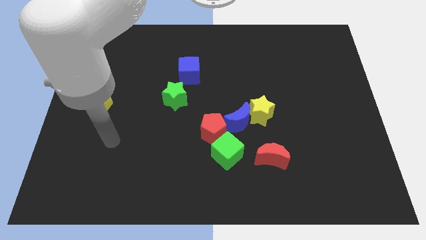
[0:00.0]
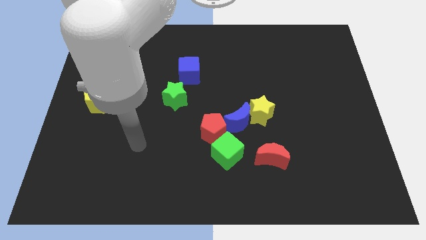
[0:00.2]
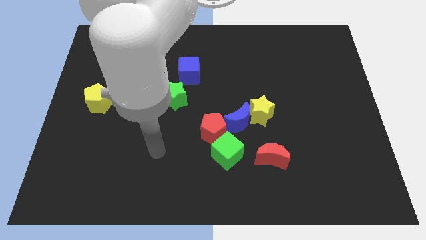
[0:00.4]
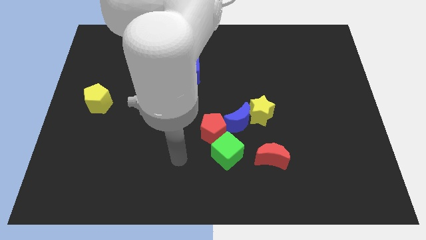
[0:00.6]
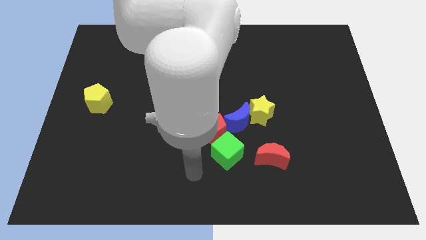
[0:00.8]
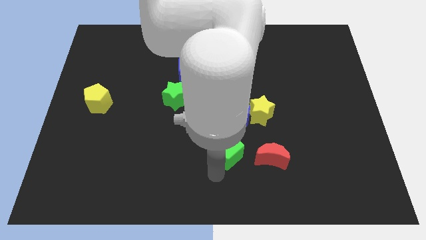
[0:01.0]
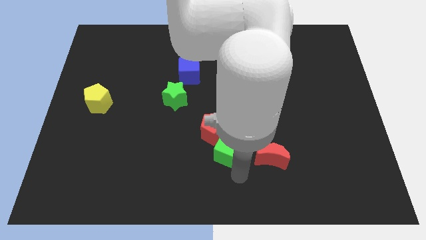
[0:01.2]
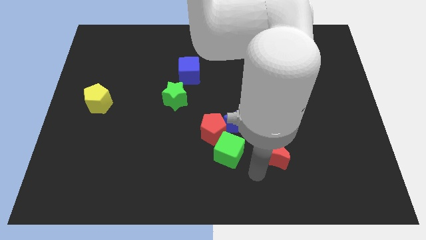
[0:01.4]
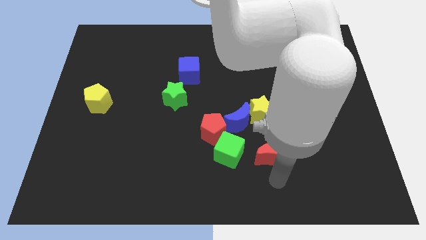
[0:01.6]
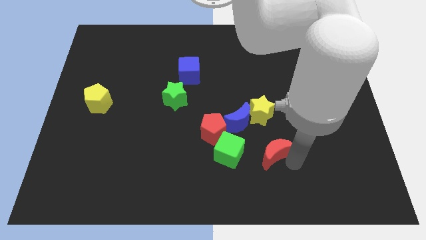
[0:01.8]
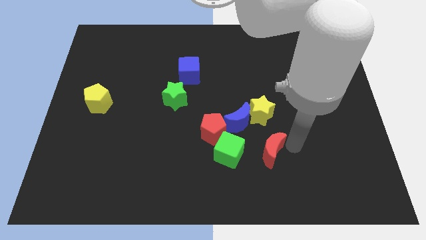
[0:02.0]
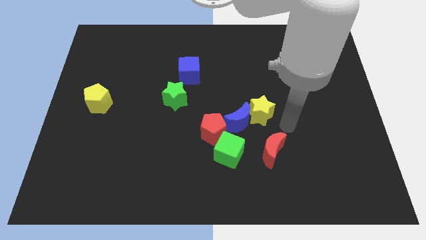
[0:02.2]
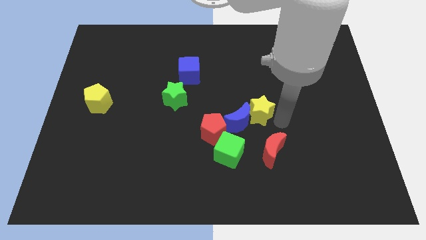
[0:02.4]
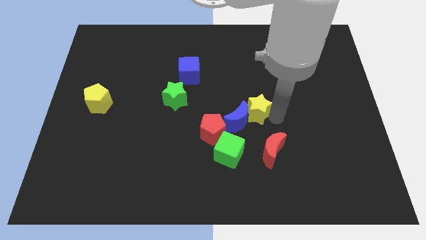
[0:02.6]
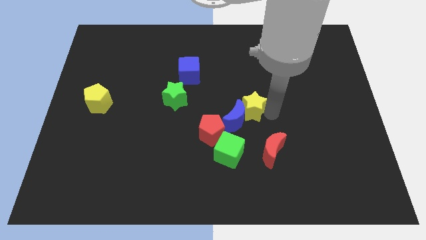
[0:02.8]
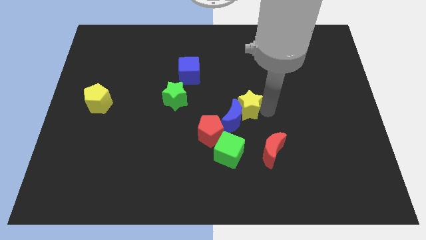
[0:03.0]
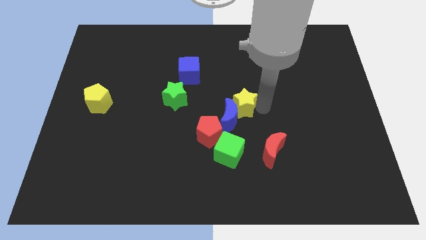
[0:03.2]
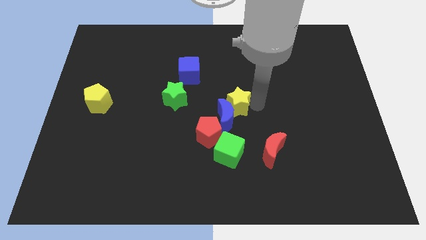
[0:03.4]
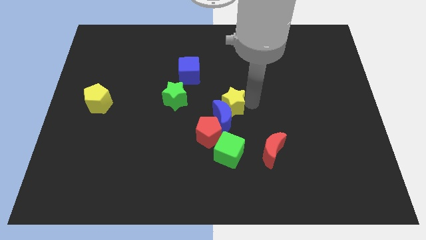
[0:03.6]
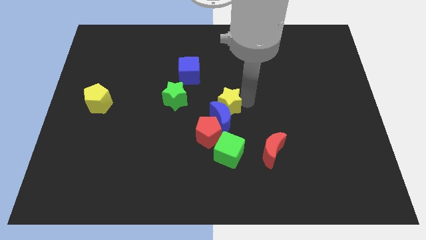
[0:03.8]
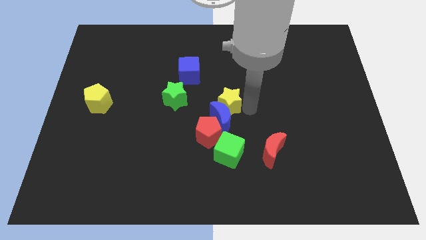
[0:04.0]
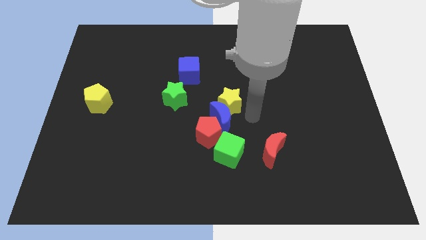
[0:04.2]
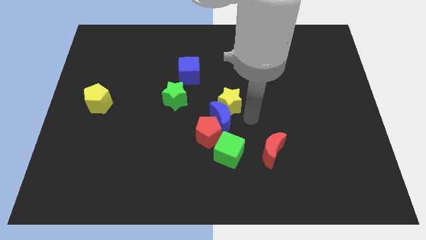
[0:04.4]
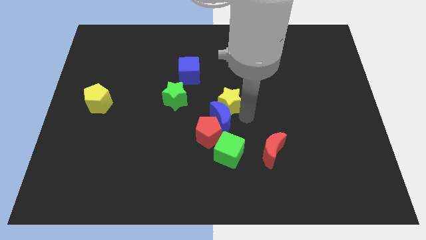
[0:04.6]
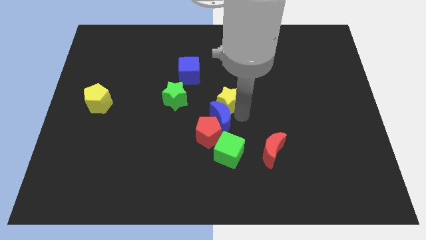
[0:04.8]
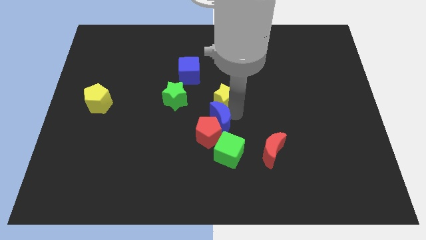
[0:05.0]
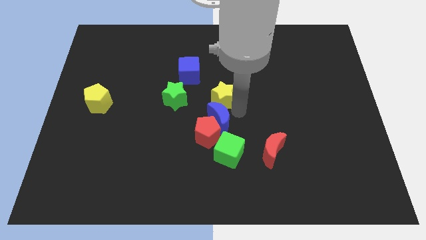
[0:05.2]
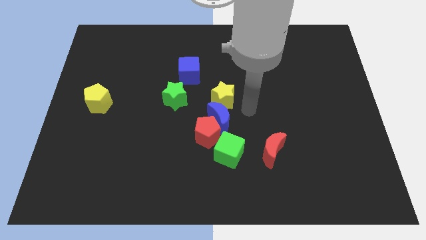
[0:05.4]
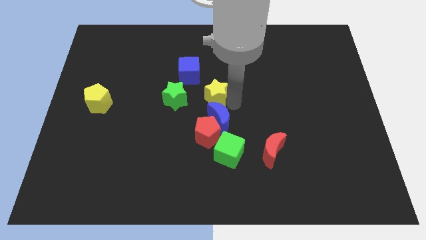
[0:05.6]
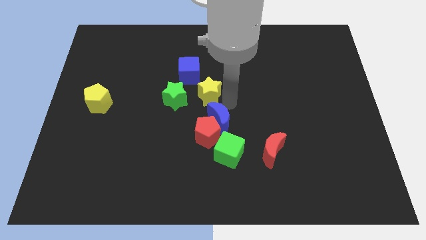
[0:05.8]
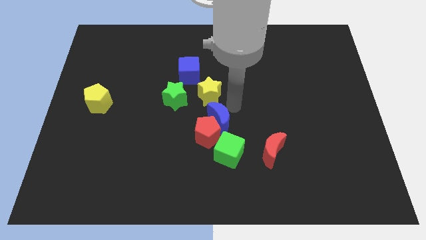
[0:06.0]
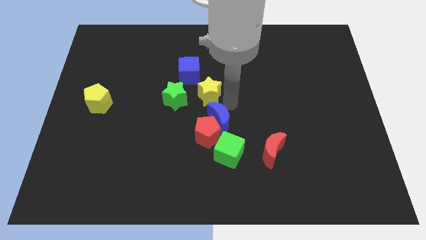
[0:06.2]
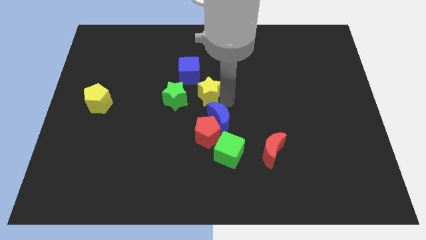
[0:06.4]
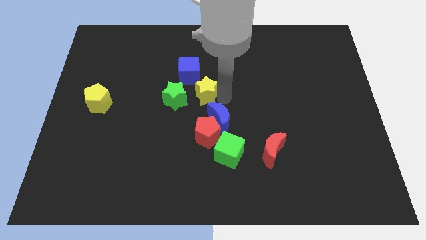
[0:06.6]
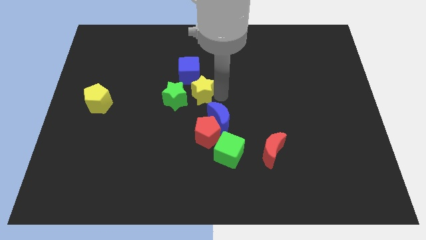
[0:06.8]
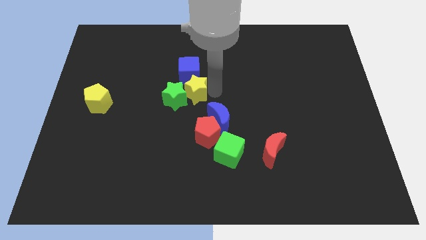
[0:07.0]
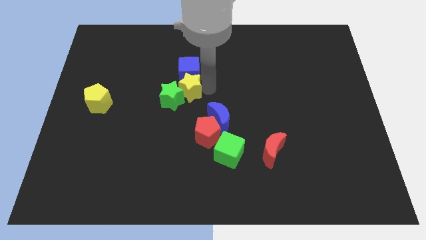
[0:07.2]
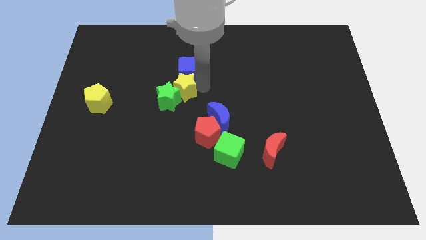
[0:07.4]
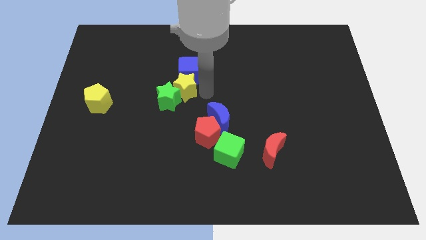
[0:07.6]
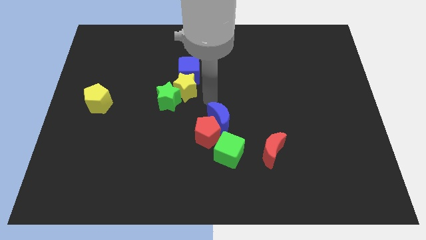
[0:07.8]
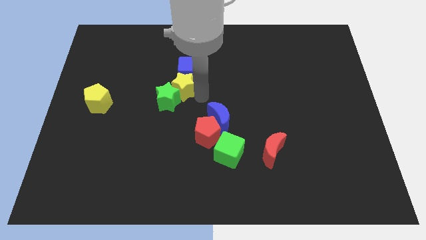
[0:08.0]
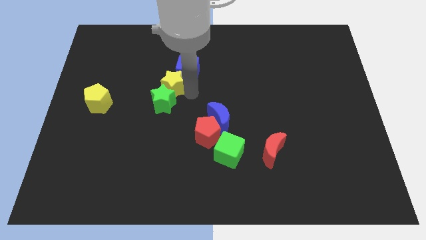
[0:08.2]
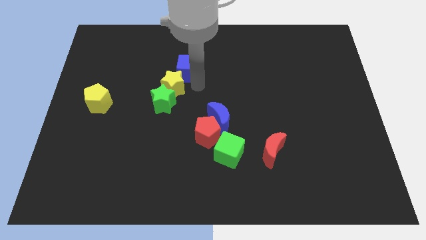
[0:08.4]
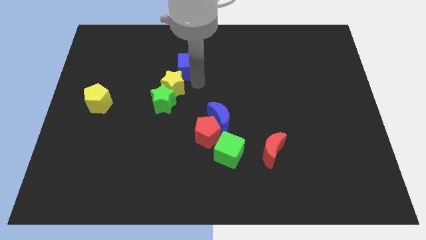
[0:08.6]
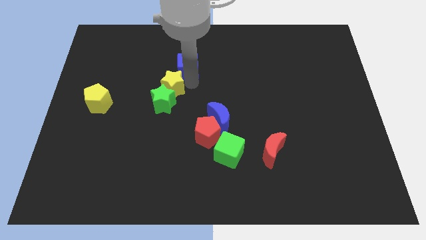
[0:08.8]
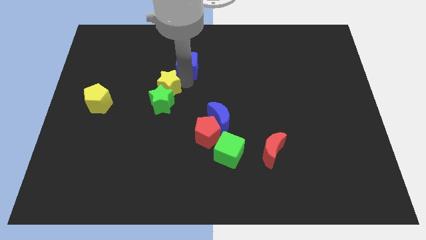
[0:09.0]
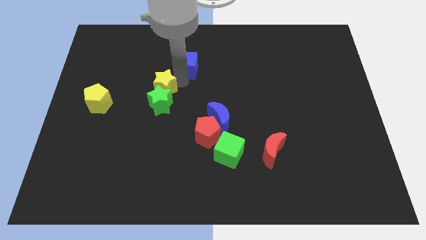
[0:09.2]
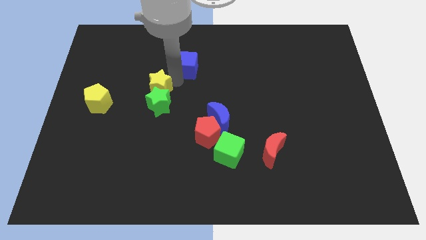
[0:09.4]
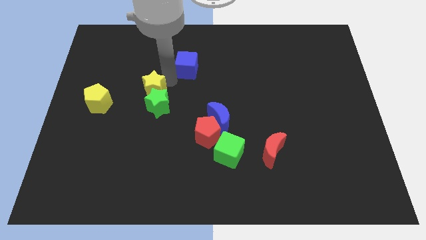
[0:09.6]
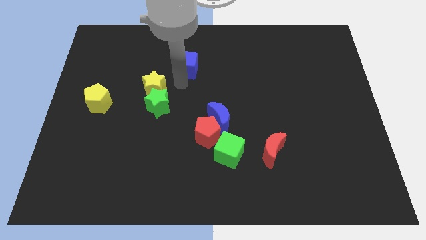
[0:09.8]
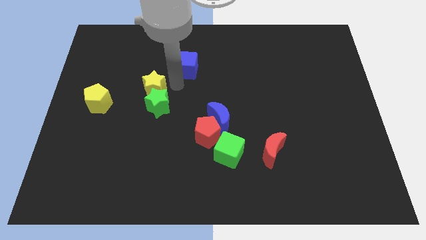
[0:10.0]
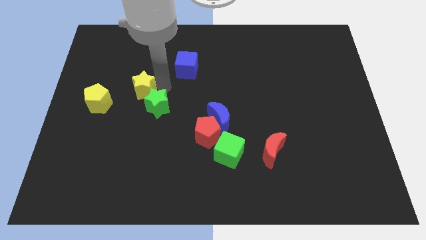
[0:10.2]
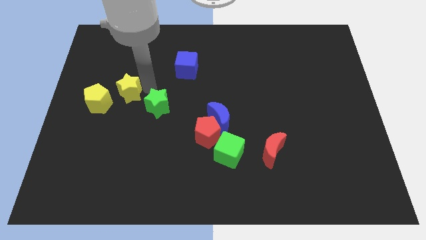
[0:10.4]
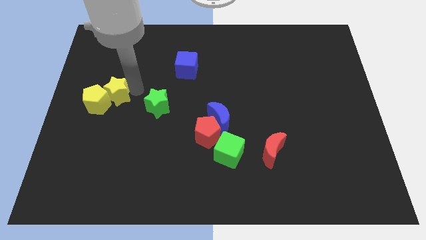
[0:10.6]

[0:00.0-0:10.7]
push the yellow star next to the yellow pentagon

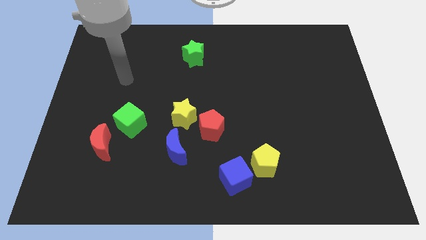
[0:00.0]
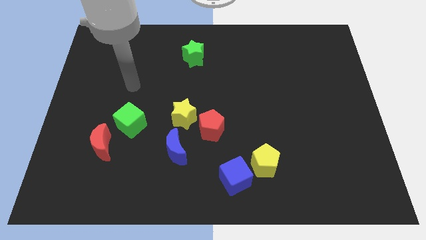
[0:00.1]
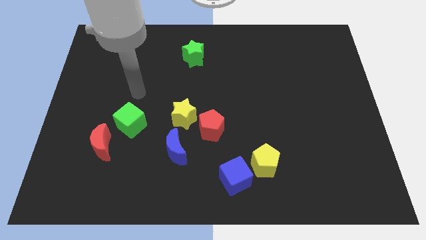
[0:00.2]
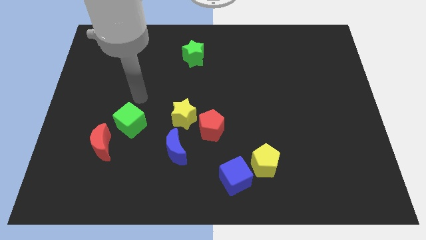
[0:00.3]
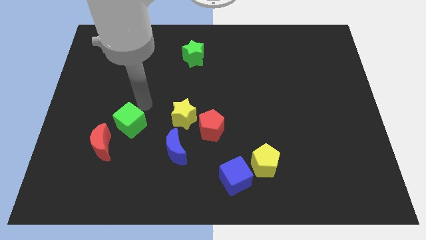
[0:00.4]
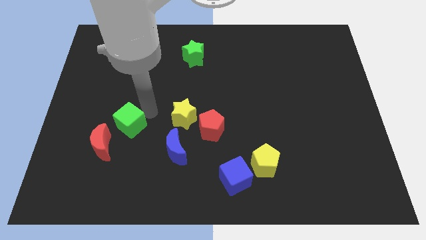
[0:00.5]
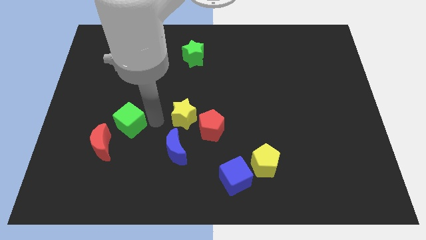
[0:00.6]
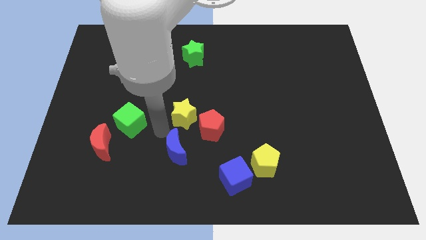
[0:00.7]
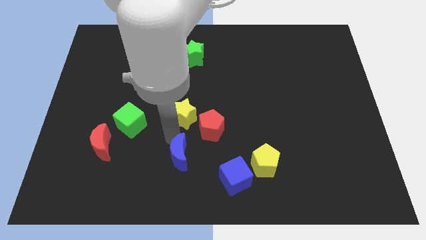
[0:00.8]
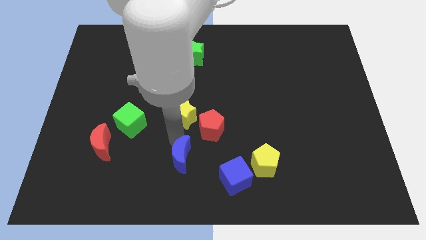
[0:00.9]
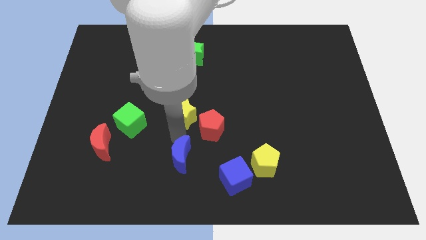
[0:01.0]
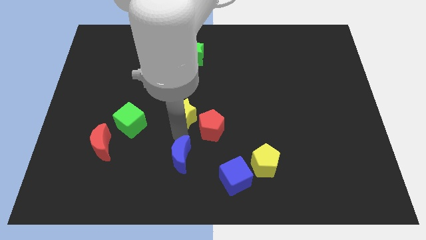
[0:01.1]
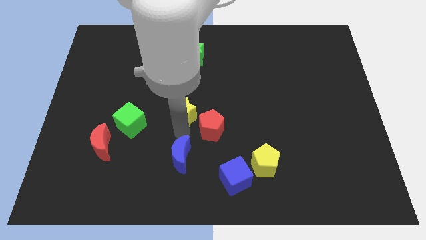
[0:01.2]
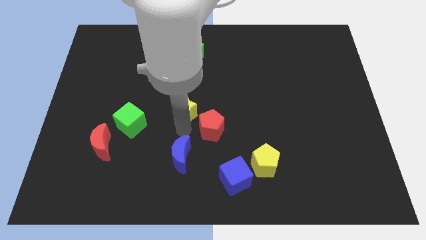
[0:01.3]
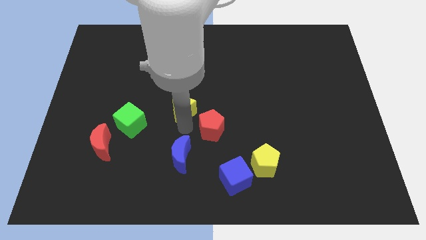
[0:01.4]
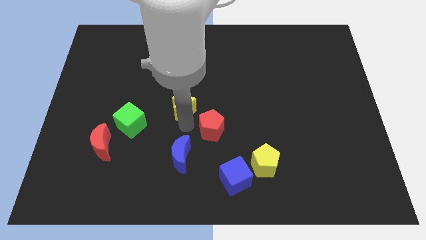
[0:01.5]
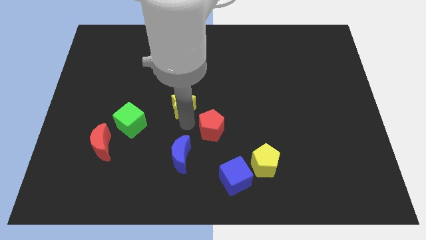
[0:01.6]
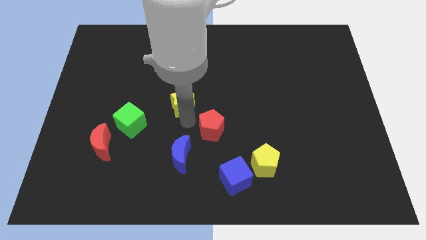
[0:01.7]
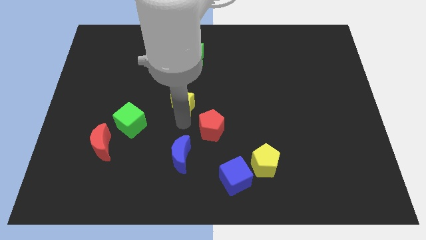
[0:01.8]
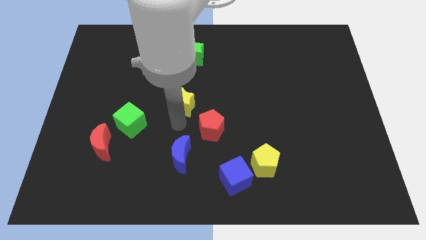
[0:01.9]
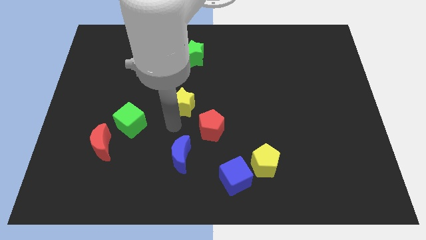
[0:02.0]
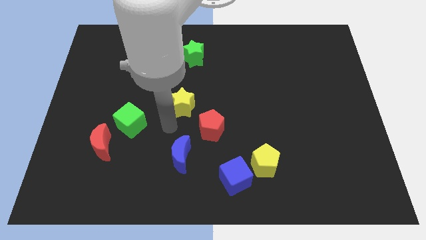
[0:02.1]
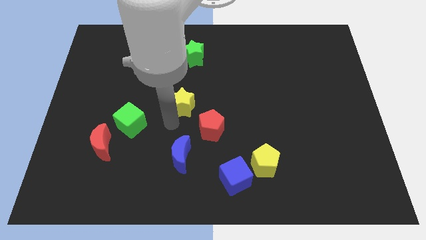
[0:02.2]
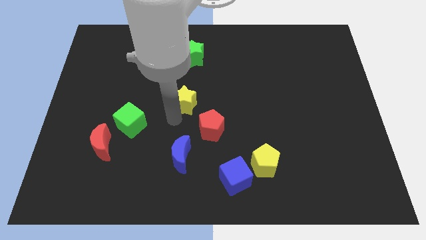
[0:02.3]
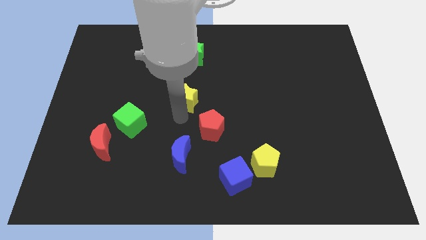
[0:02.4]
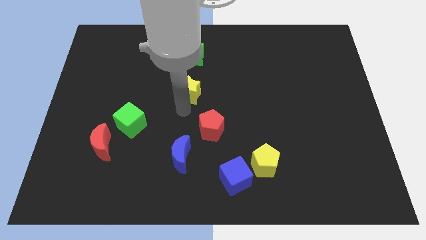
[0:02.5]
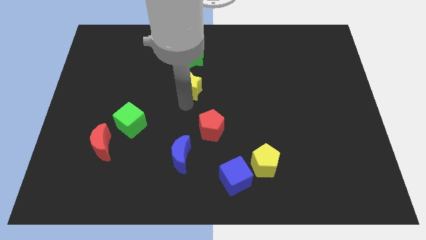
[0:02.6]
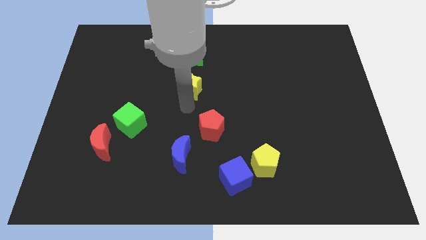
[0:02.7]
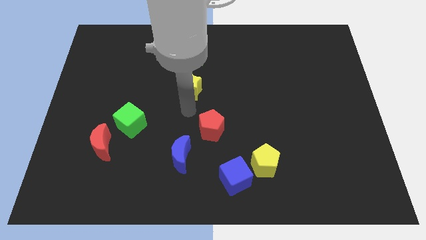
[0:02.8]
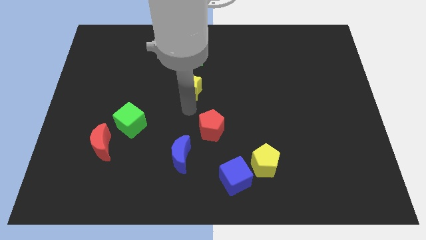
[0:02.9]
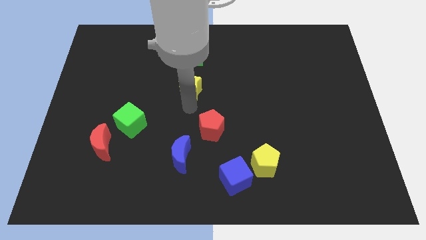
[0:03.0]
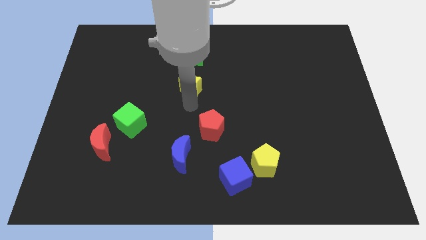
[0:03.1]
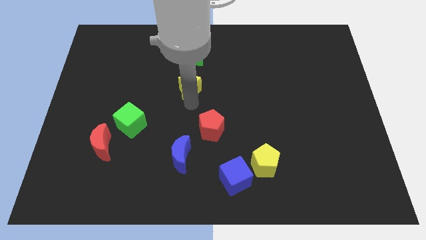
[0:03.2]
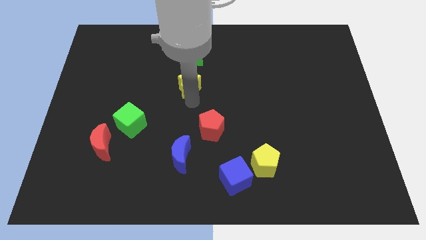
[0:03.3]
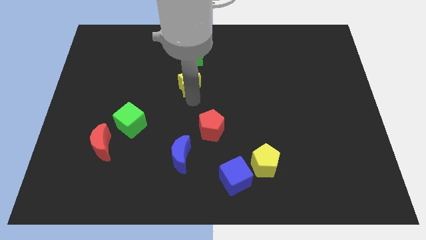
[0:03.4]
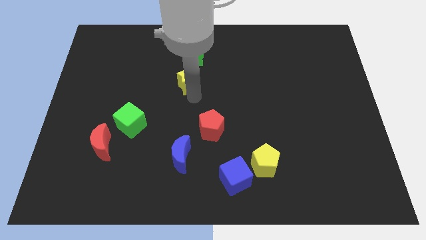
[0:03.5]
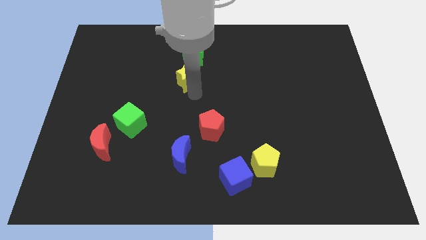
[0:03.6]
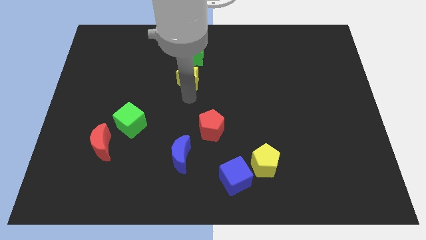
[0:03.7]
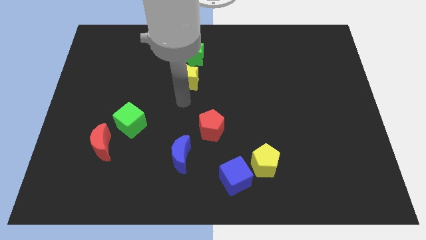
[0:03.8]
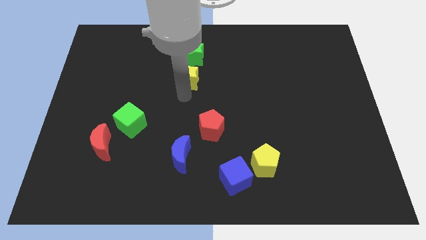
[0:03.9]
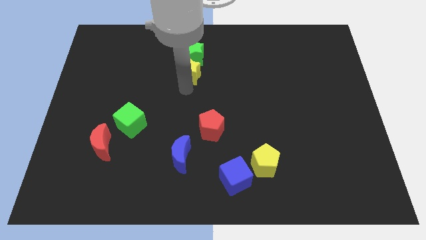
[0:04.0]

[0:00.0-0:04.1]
slide the yellow star close to the green star
